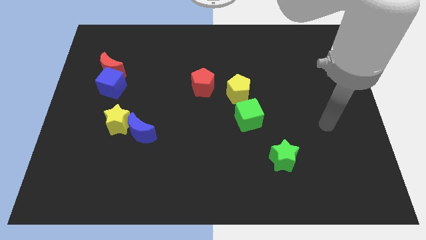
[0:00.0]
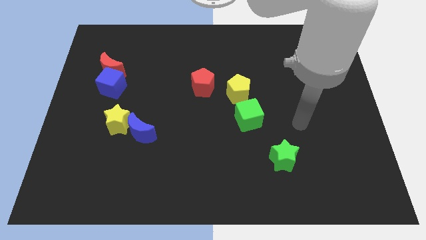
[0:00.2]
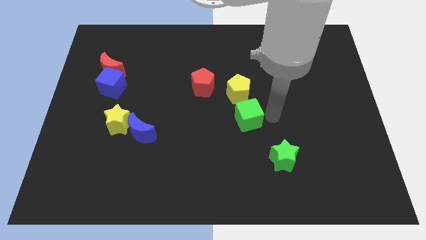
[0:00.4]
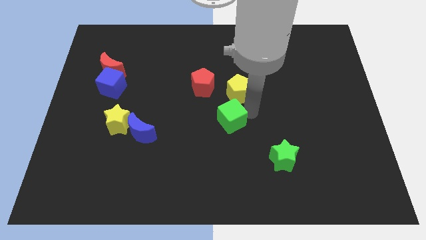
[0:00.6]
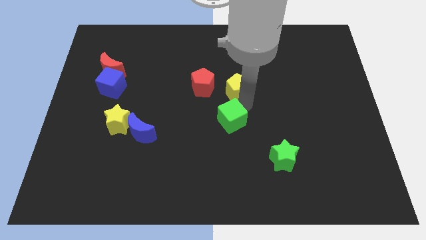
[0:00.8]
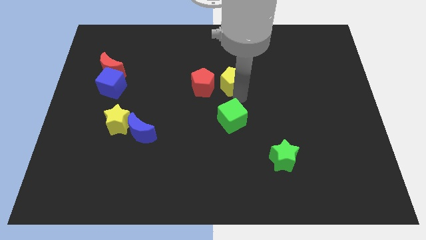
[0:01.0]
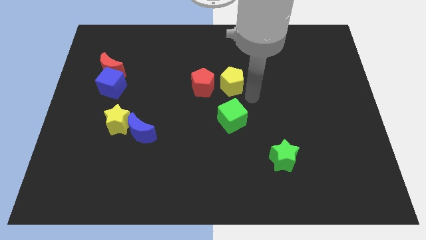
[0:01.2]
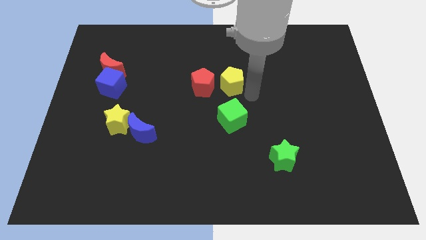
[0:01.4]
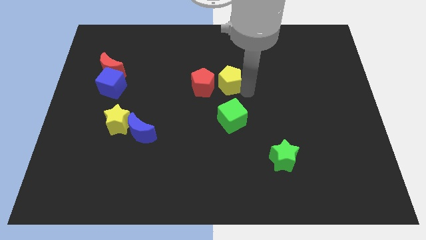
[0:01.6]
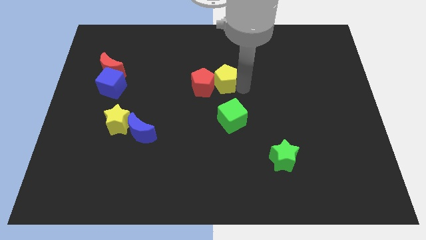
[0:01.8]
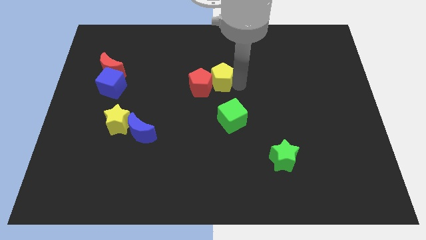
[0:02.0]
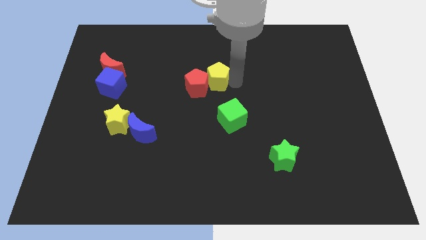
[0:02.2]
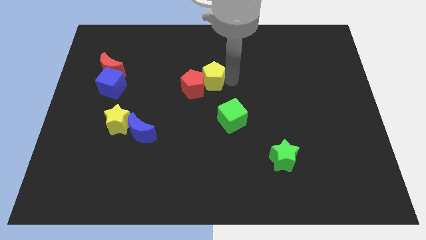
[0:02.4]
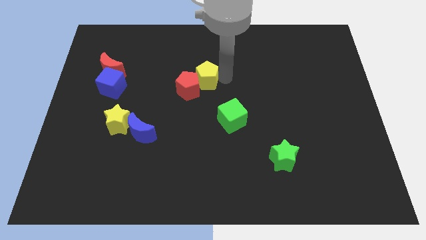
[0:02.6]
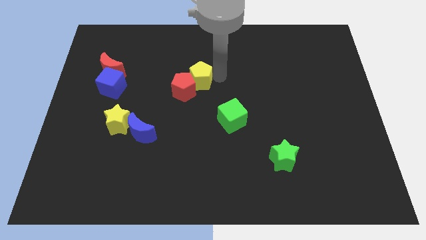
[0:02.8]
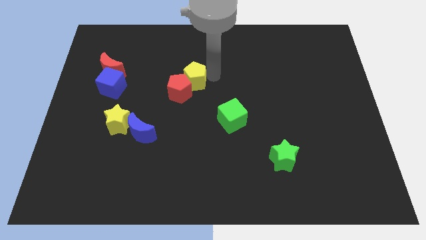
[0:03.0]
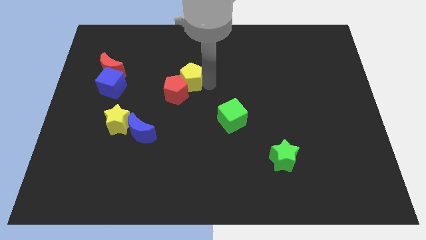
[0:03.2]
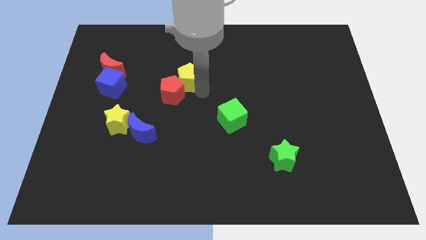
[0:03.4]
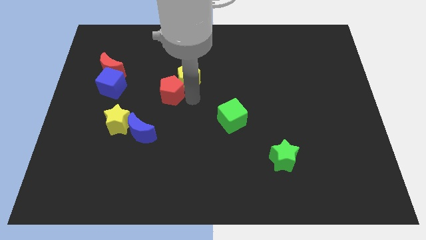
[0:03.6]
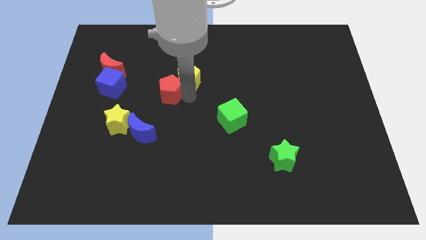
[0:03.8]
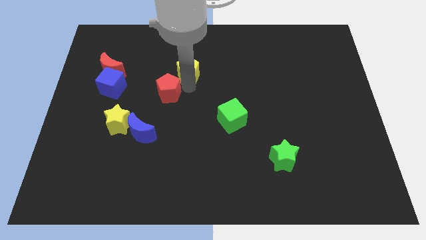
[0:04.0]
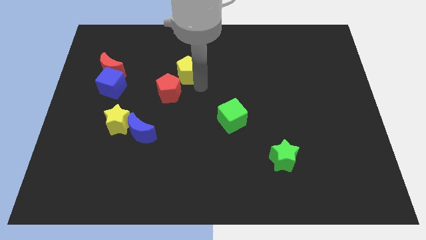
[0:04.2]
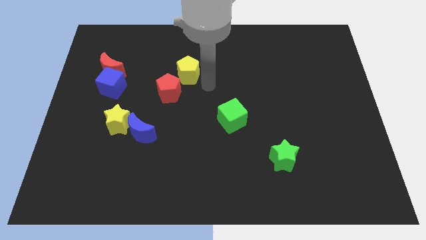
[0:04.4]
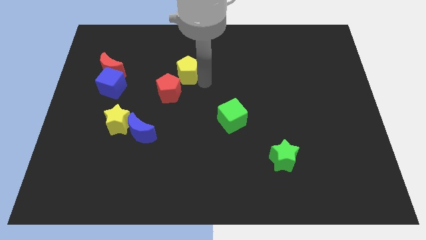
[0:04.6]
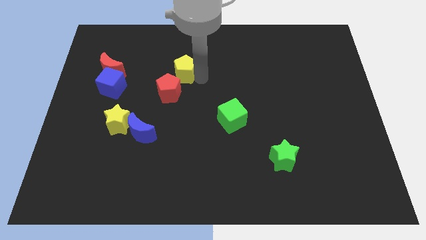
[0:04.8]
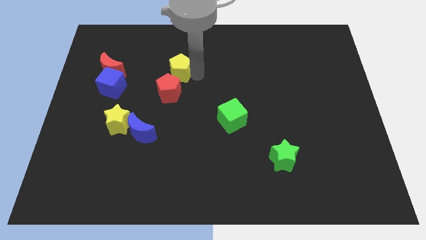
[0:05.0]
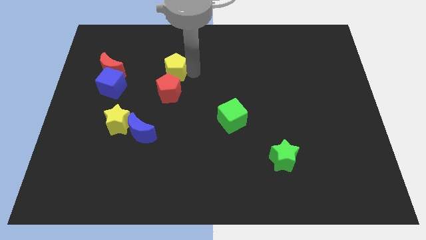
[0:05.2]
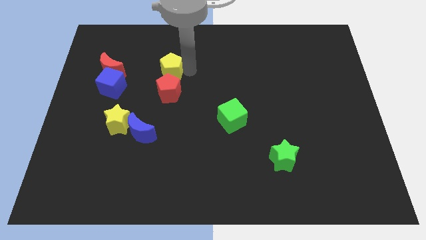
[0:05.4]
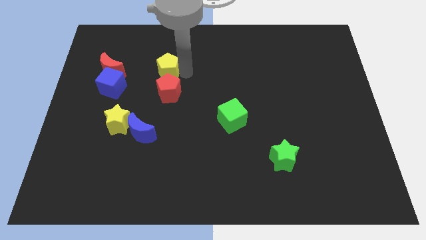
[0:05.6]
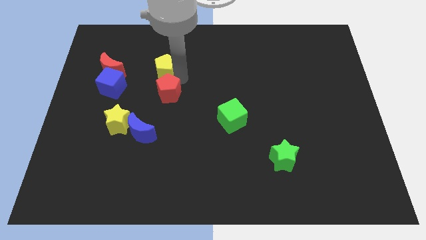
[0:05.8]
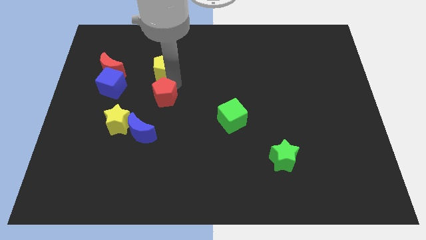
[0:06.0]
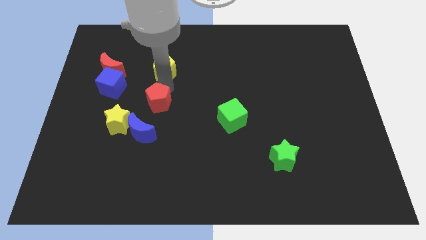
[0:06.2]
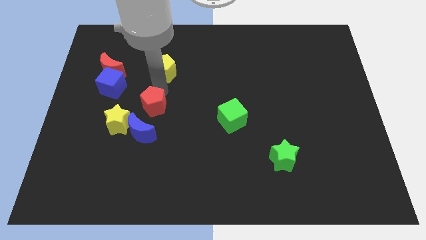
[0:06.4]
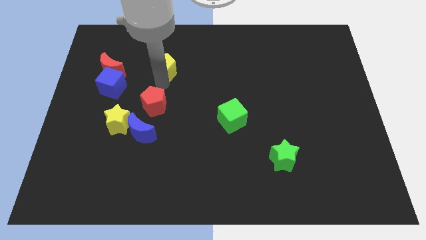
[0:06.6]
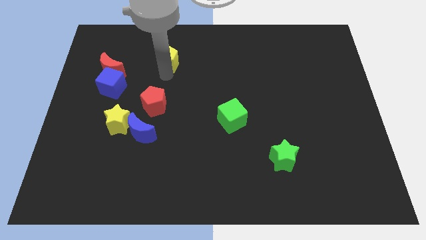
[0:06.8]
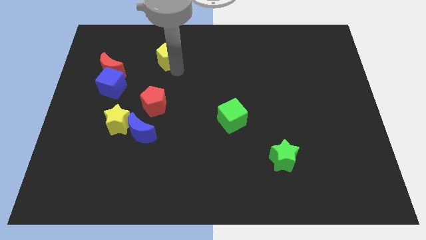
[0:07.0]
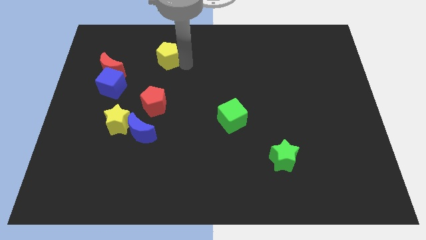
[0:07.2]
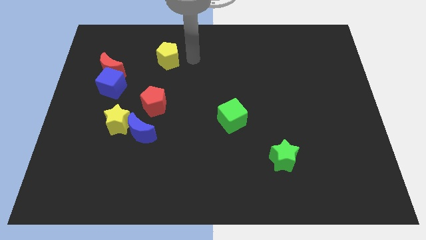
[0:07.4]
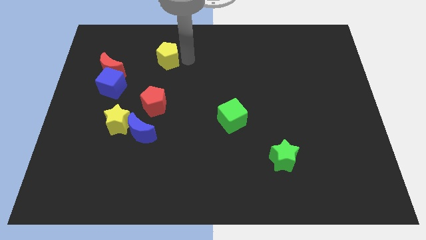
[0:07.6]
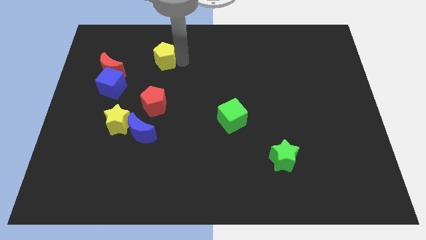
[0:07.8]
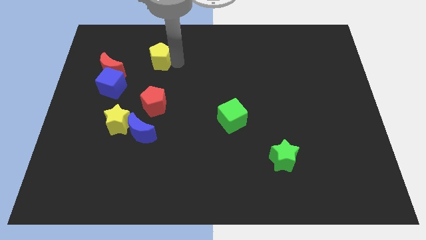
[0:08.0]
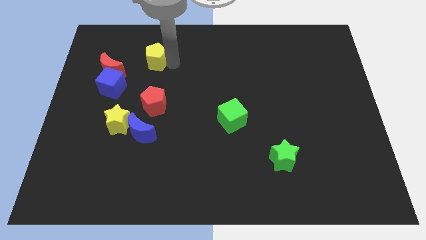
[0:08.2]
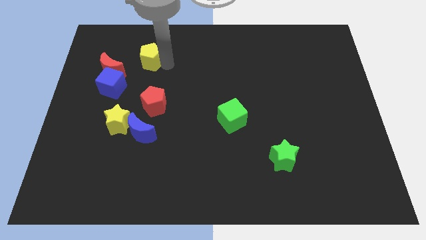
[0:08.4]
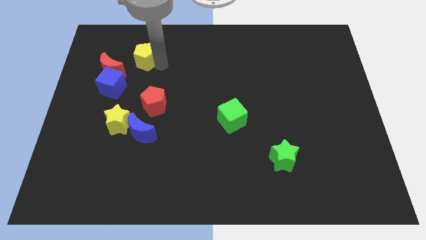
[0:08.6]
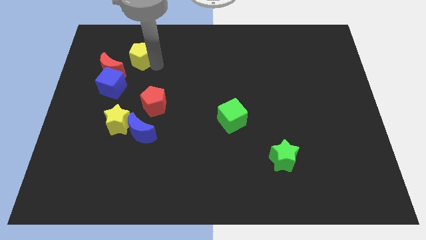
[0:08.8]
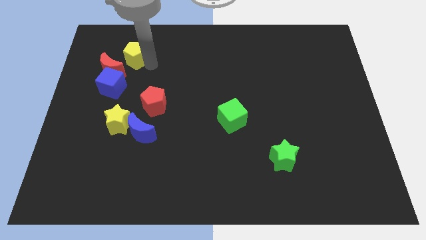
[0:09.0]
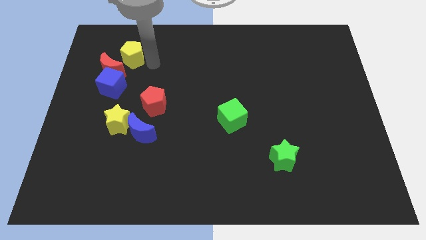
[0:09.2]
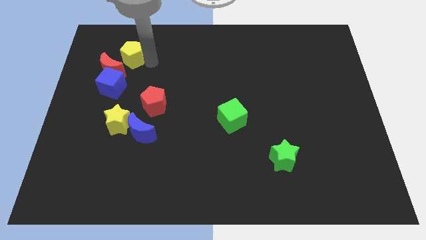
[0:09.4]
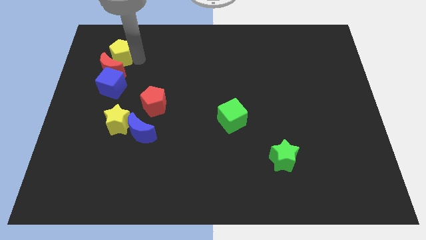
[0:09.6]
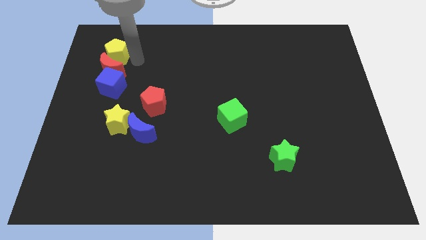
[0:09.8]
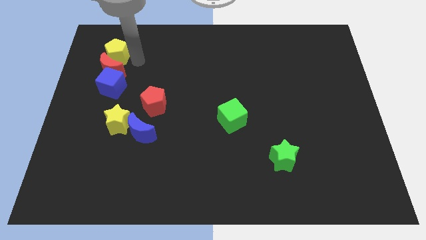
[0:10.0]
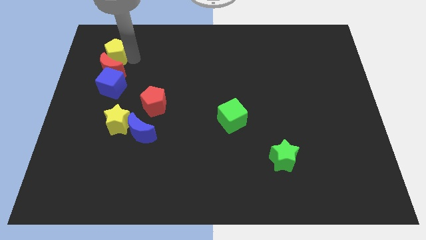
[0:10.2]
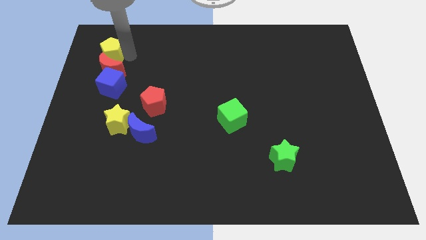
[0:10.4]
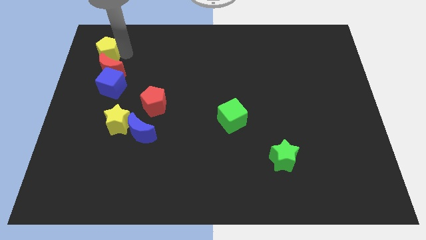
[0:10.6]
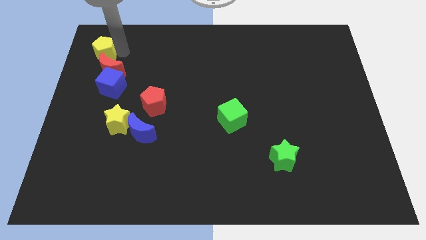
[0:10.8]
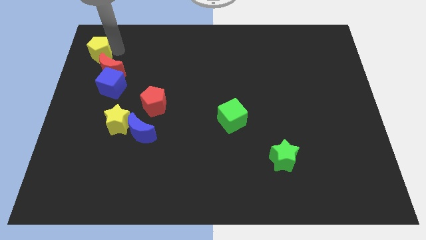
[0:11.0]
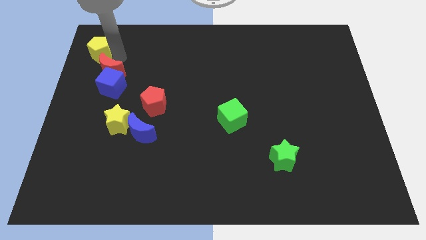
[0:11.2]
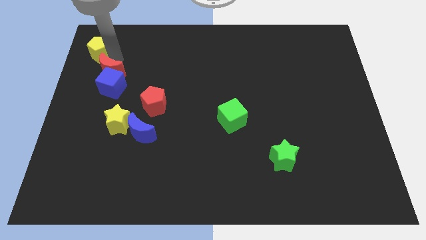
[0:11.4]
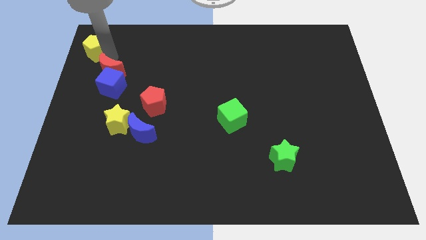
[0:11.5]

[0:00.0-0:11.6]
slide the yellow pentagon to the top left
